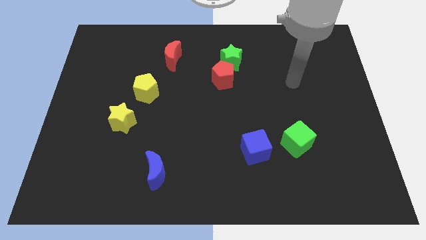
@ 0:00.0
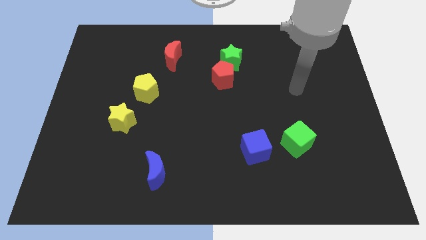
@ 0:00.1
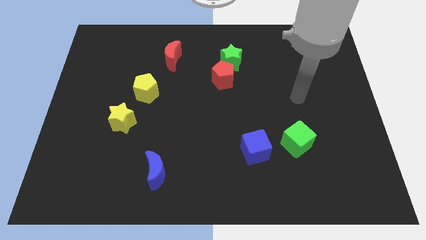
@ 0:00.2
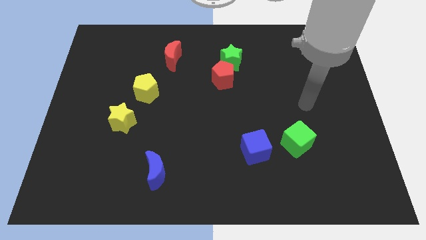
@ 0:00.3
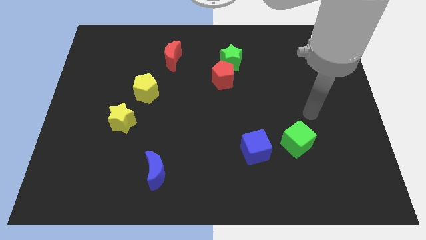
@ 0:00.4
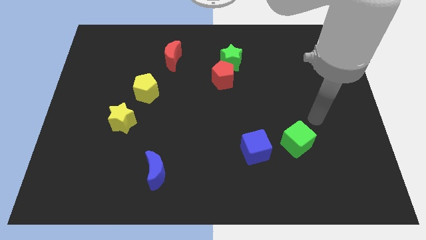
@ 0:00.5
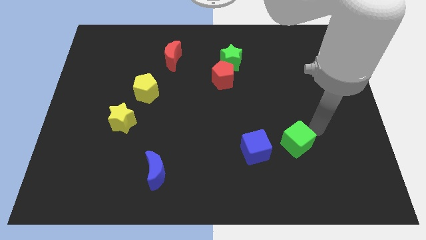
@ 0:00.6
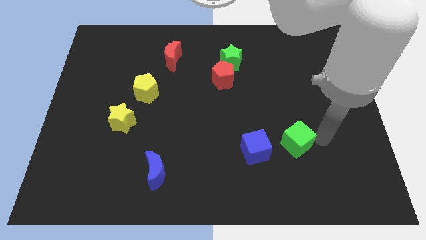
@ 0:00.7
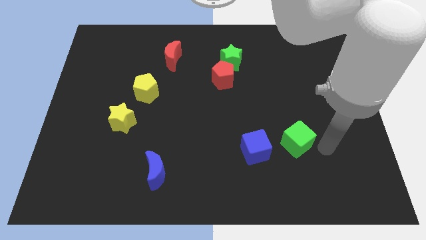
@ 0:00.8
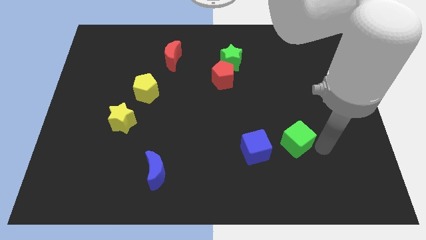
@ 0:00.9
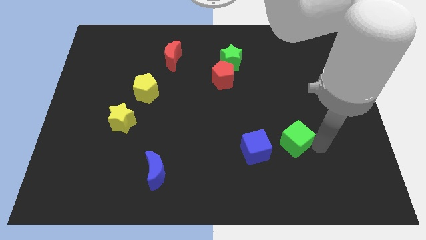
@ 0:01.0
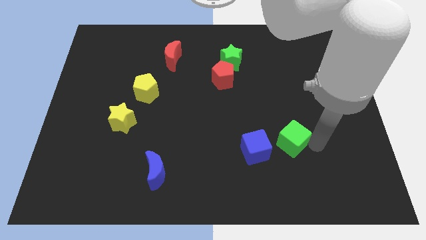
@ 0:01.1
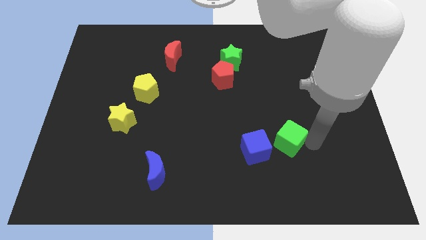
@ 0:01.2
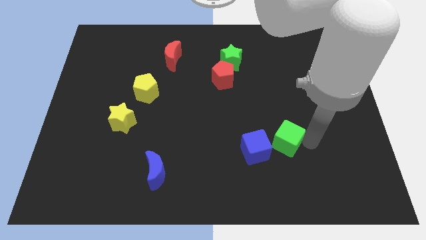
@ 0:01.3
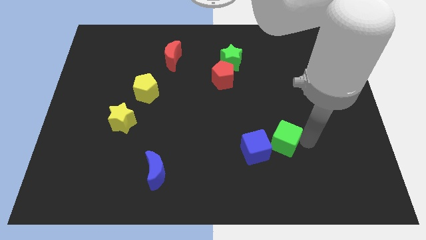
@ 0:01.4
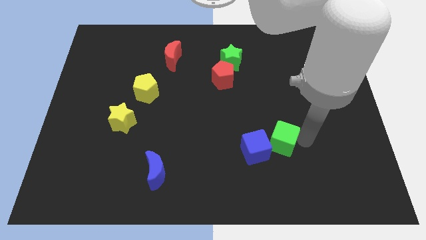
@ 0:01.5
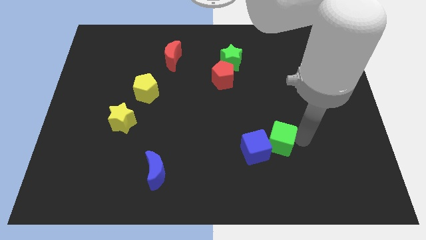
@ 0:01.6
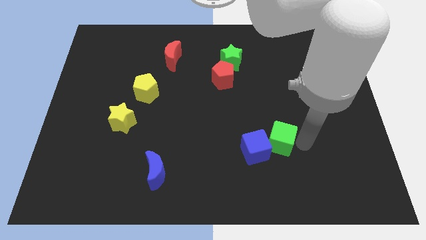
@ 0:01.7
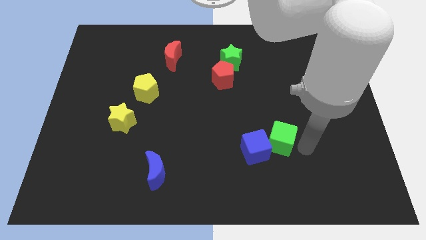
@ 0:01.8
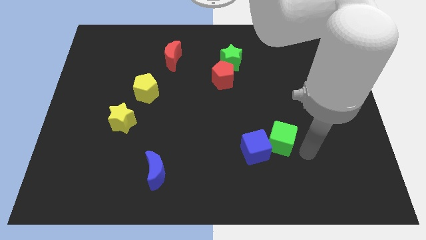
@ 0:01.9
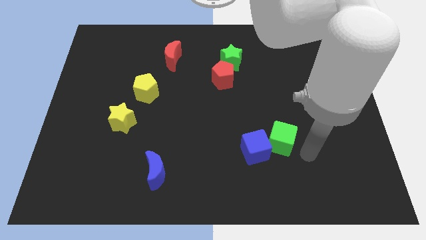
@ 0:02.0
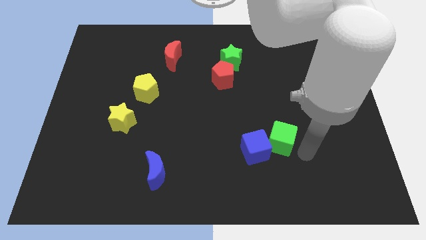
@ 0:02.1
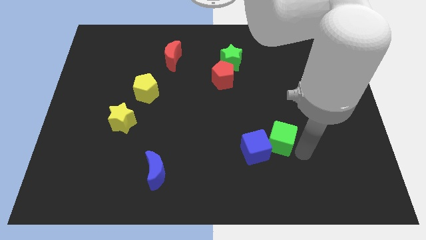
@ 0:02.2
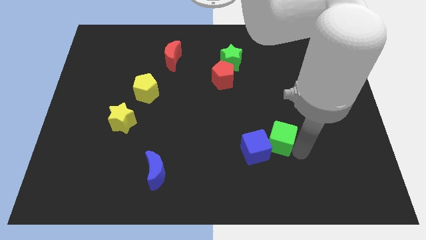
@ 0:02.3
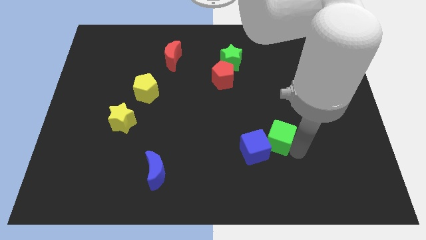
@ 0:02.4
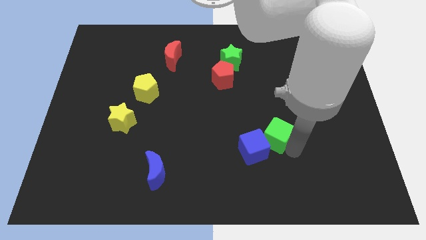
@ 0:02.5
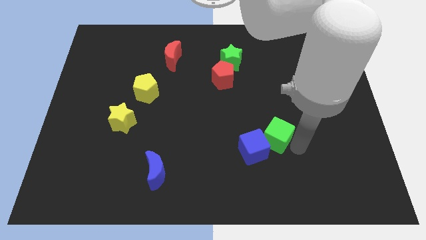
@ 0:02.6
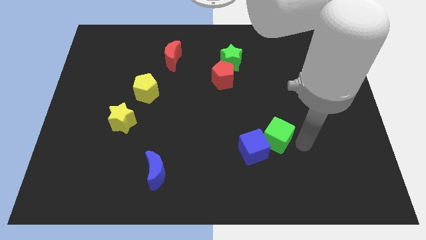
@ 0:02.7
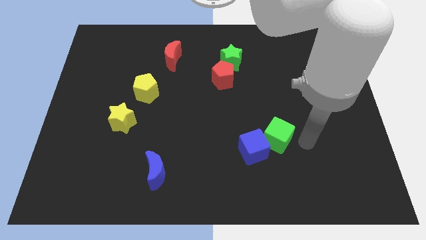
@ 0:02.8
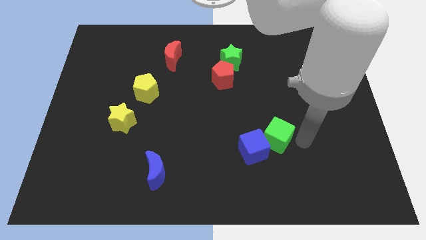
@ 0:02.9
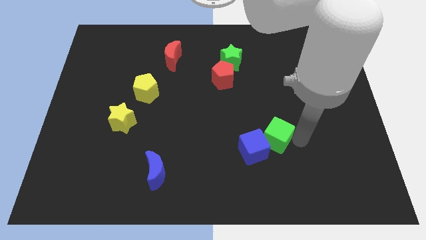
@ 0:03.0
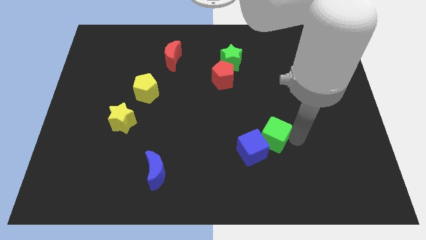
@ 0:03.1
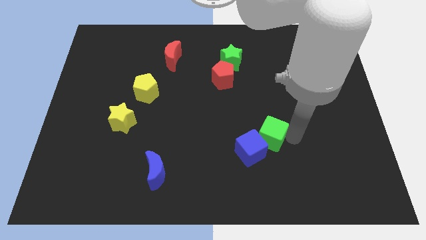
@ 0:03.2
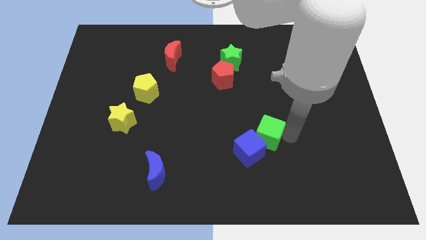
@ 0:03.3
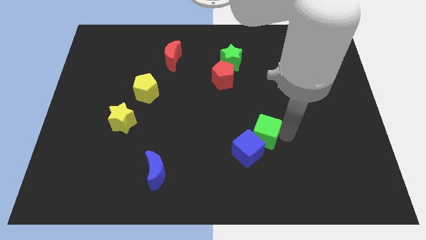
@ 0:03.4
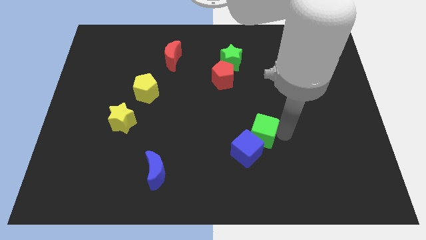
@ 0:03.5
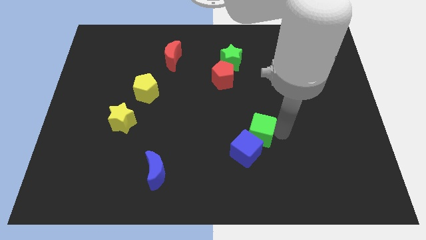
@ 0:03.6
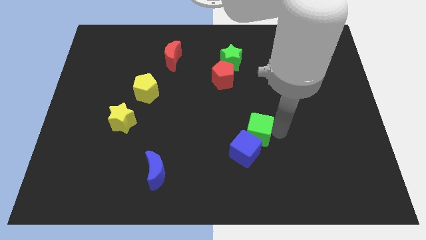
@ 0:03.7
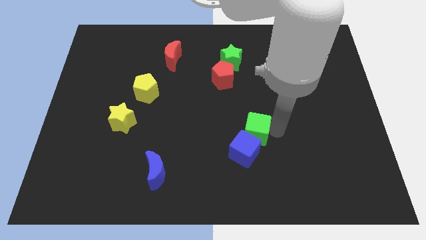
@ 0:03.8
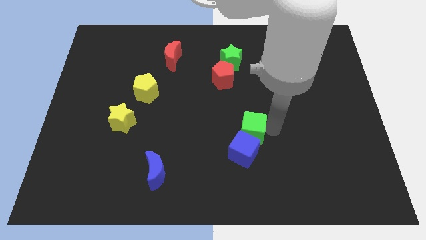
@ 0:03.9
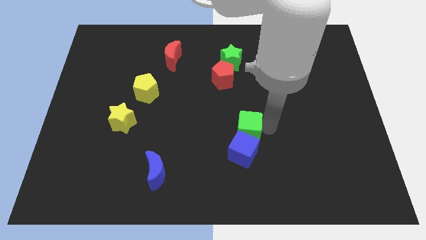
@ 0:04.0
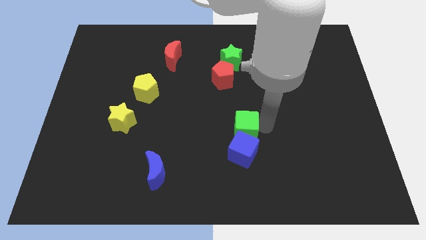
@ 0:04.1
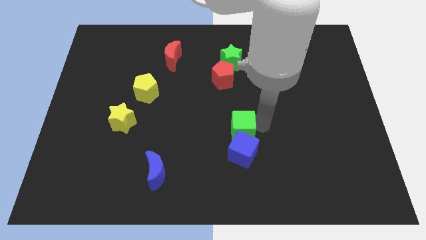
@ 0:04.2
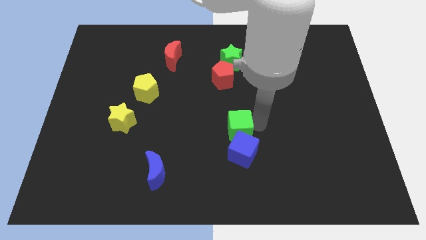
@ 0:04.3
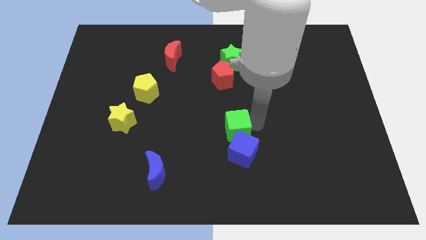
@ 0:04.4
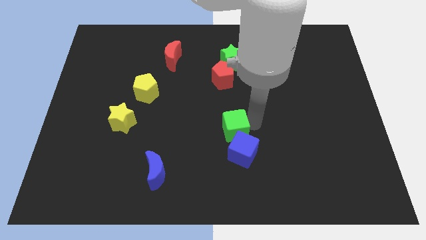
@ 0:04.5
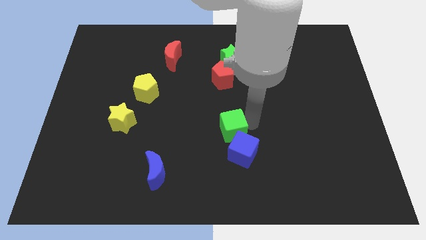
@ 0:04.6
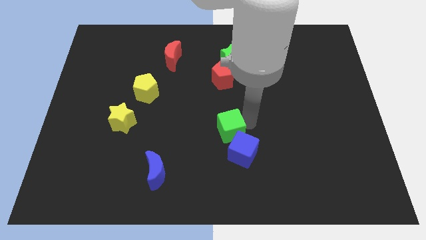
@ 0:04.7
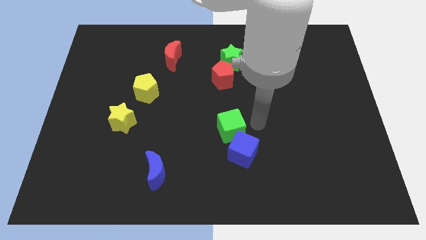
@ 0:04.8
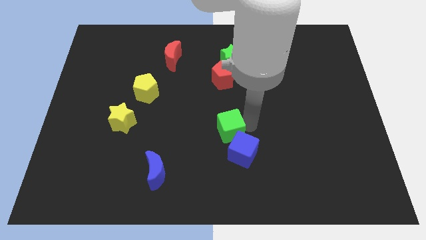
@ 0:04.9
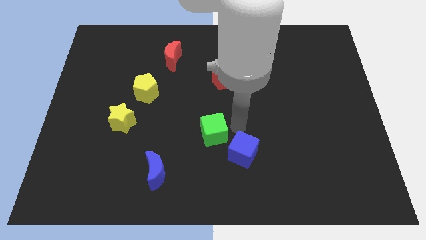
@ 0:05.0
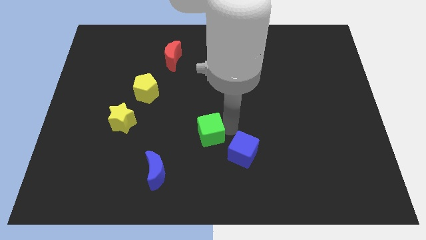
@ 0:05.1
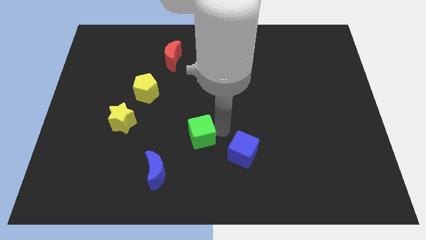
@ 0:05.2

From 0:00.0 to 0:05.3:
move the green cube left

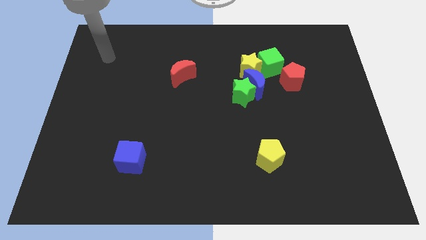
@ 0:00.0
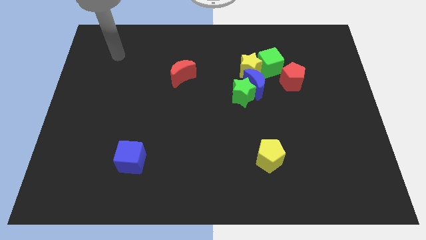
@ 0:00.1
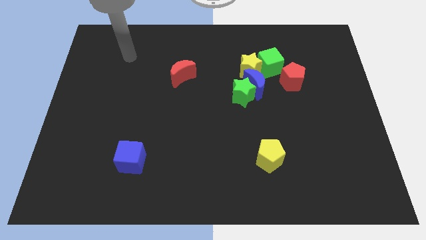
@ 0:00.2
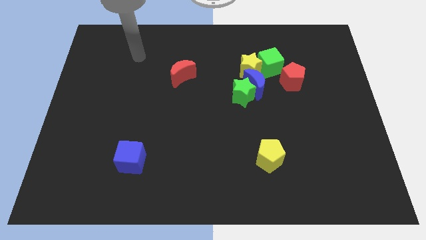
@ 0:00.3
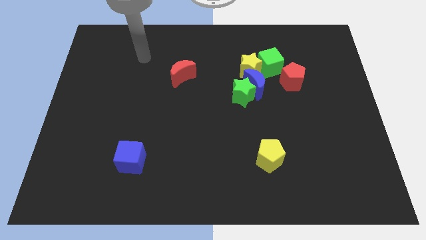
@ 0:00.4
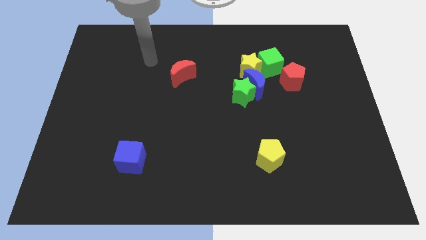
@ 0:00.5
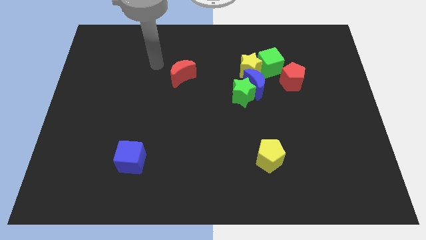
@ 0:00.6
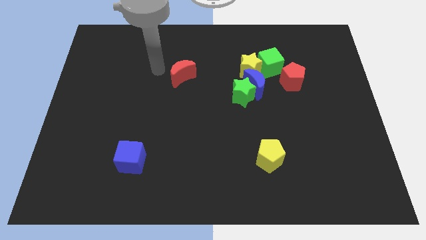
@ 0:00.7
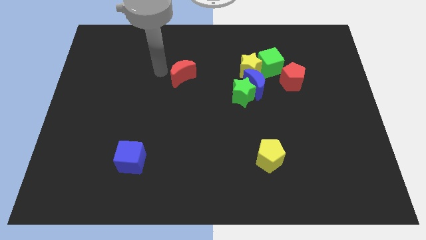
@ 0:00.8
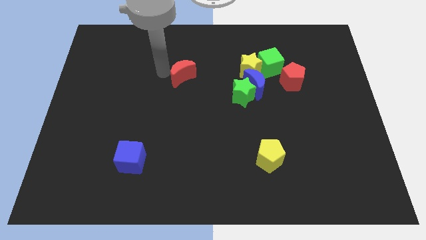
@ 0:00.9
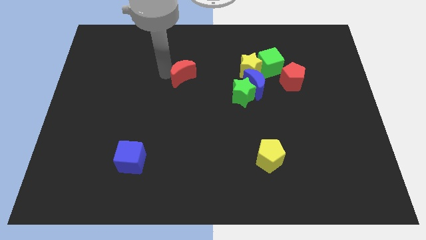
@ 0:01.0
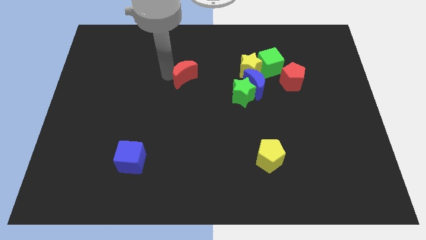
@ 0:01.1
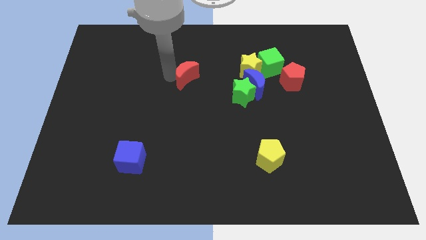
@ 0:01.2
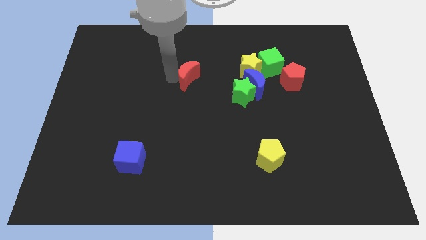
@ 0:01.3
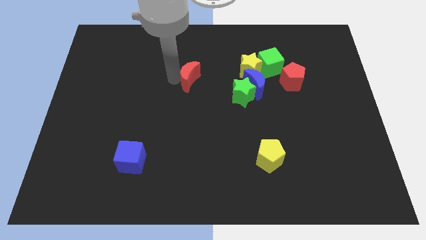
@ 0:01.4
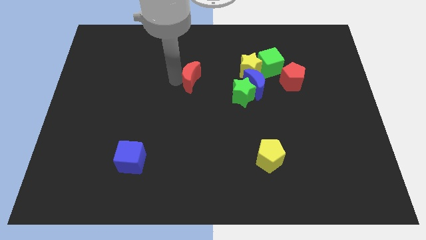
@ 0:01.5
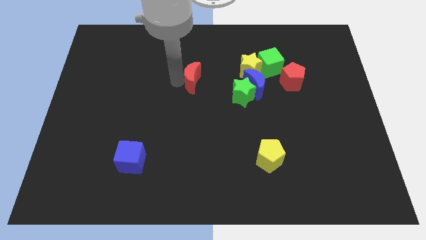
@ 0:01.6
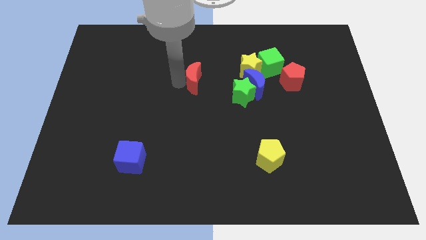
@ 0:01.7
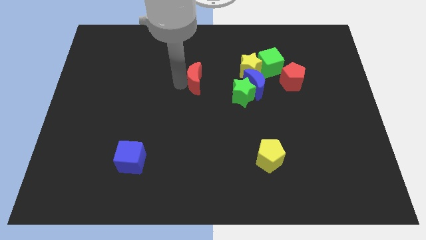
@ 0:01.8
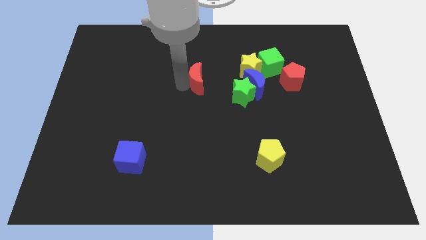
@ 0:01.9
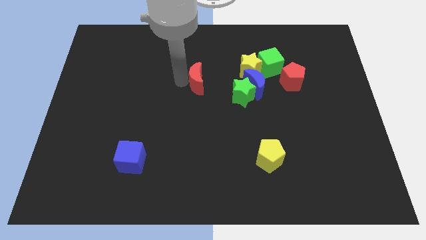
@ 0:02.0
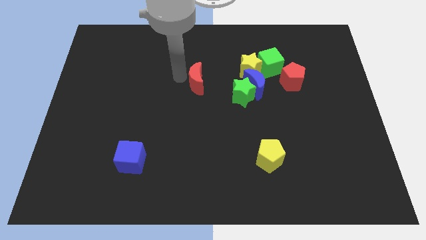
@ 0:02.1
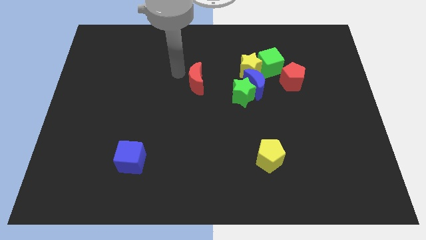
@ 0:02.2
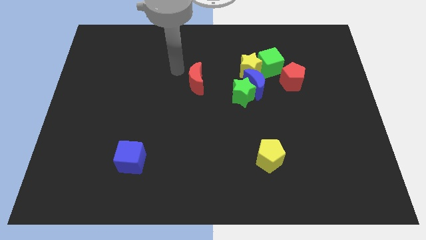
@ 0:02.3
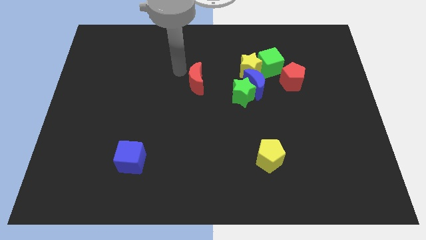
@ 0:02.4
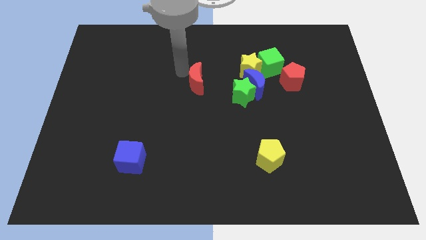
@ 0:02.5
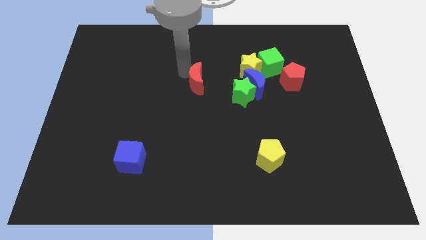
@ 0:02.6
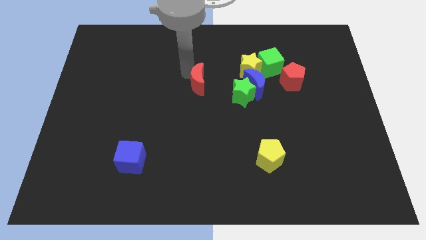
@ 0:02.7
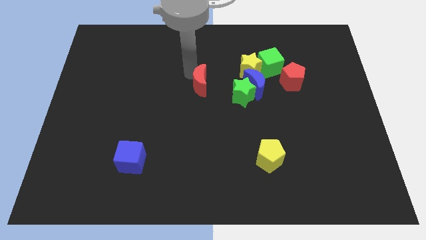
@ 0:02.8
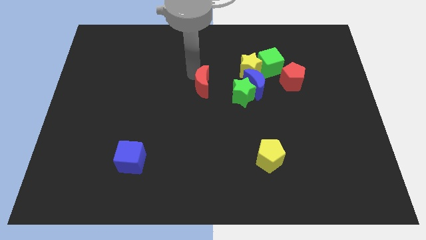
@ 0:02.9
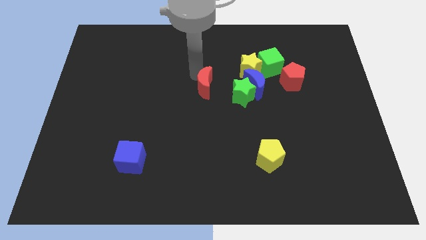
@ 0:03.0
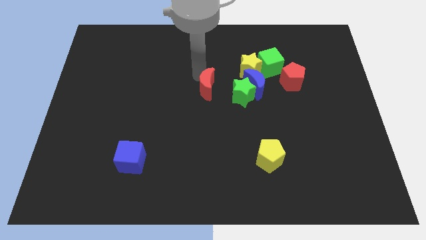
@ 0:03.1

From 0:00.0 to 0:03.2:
slide the red moon down and right a little
